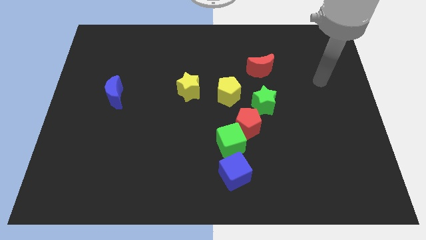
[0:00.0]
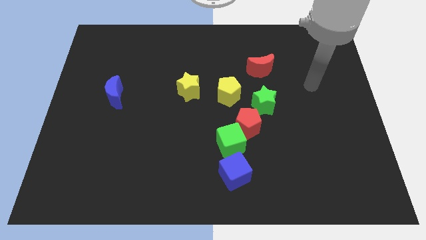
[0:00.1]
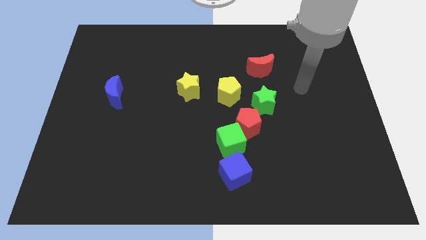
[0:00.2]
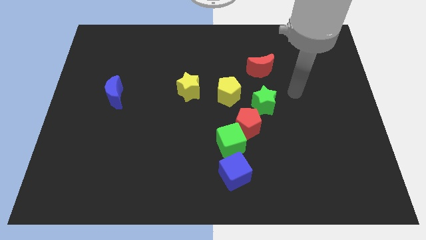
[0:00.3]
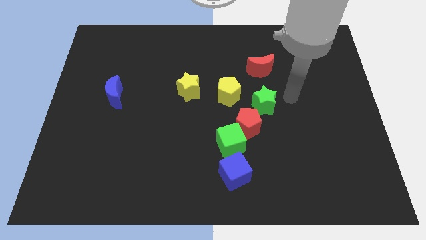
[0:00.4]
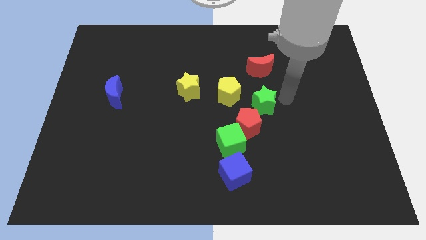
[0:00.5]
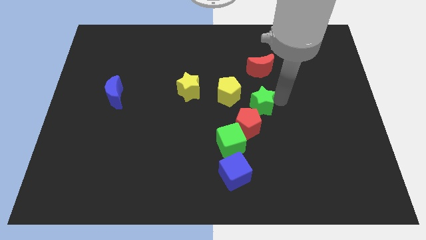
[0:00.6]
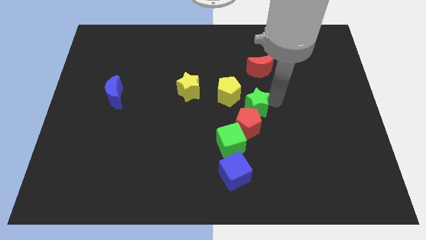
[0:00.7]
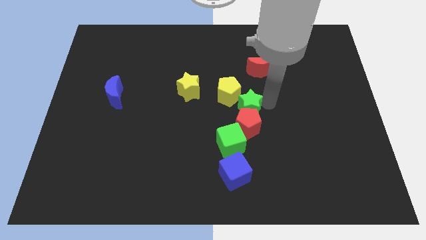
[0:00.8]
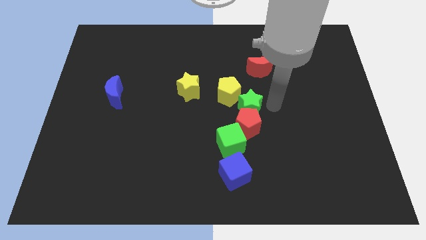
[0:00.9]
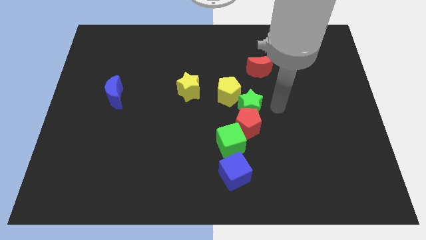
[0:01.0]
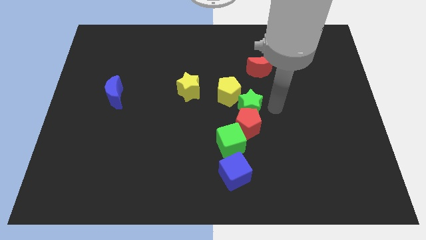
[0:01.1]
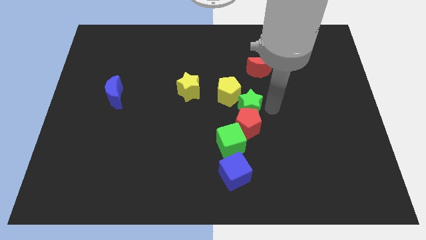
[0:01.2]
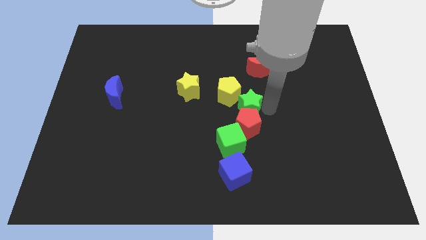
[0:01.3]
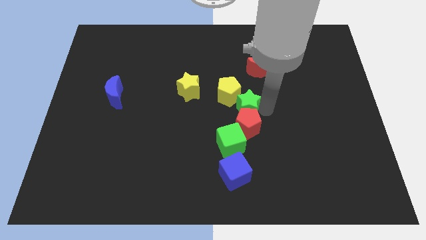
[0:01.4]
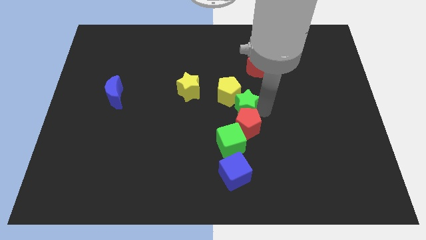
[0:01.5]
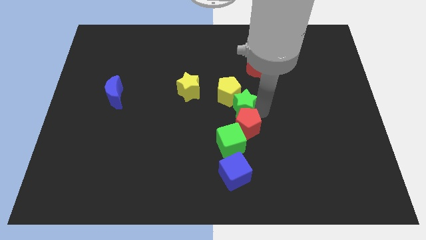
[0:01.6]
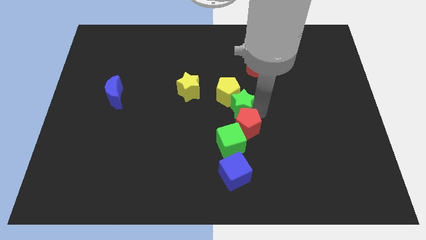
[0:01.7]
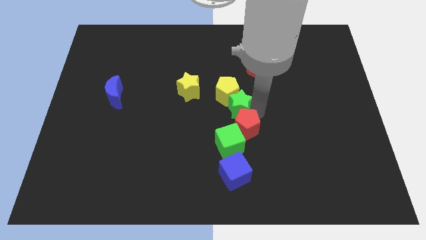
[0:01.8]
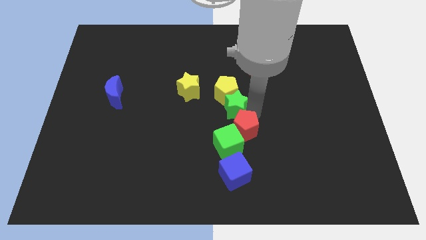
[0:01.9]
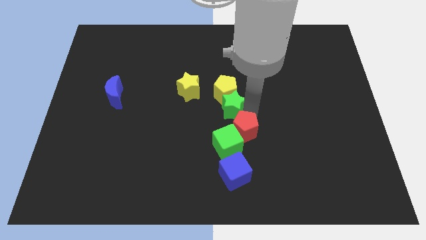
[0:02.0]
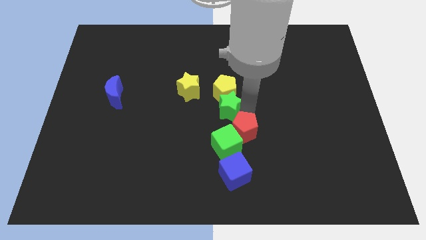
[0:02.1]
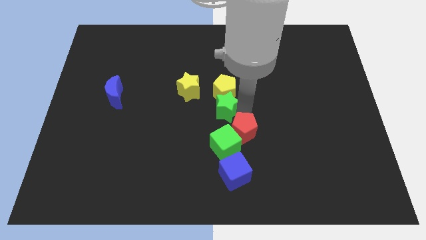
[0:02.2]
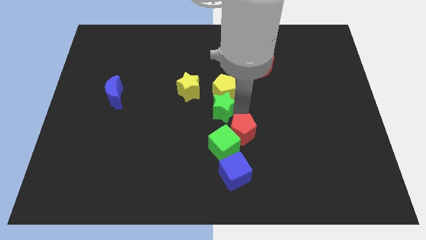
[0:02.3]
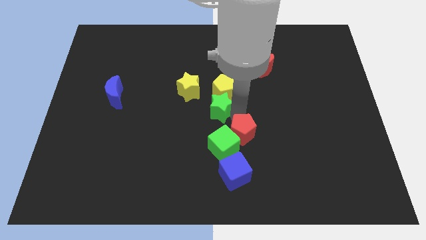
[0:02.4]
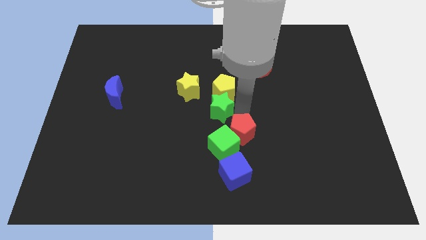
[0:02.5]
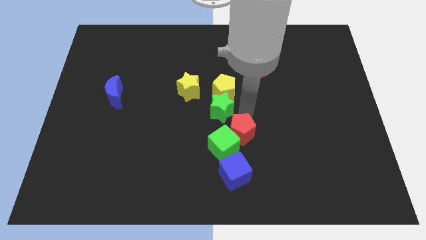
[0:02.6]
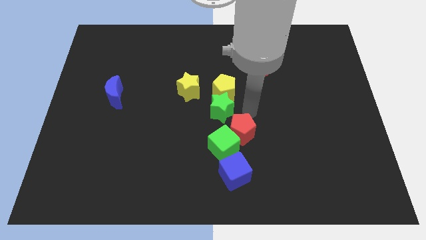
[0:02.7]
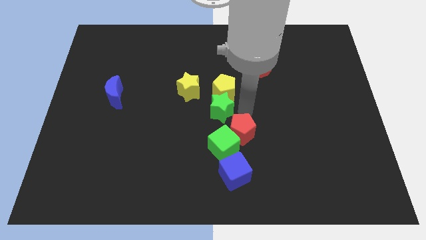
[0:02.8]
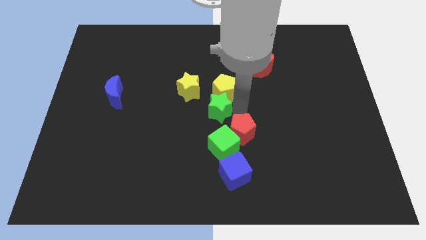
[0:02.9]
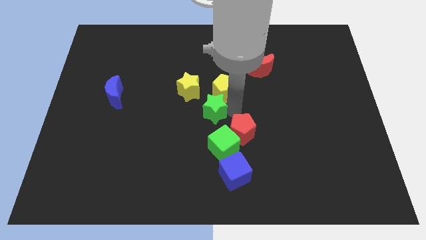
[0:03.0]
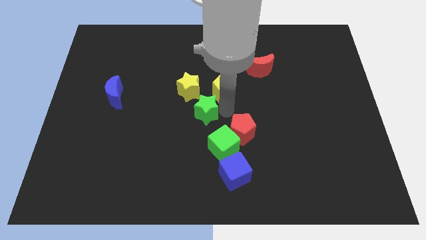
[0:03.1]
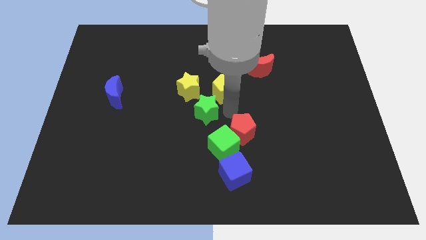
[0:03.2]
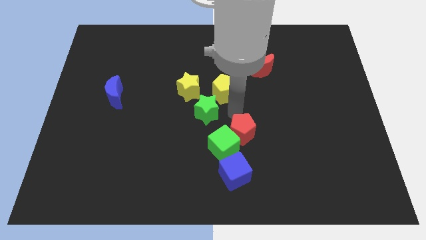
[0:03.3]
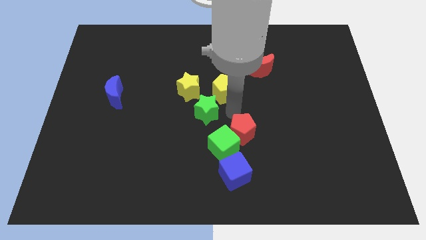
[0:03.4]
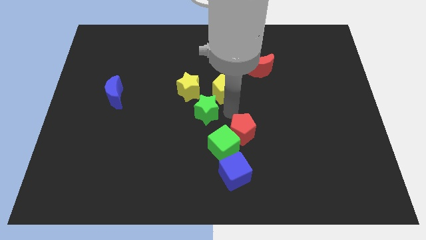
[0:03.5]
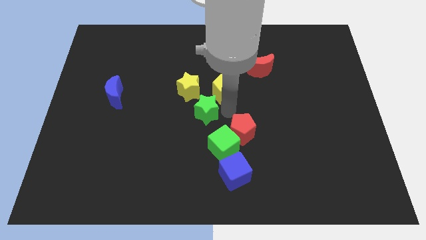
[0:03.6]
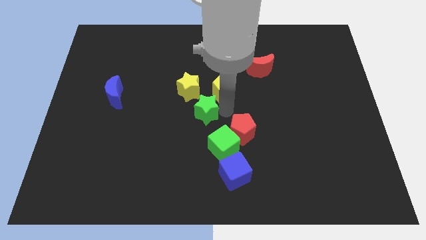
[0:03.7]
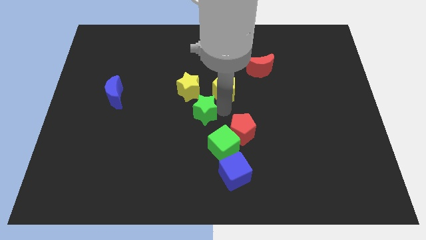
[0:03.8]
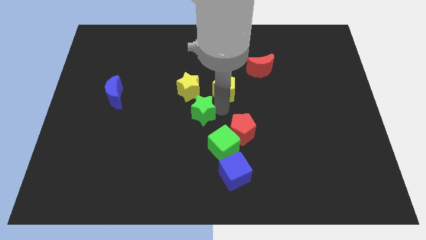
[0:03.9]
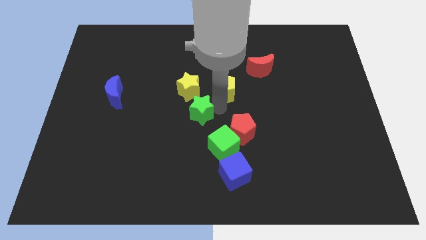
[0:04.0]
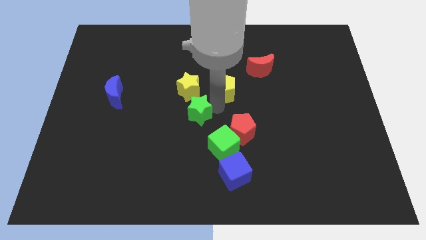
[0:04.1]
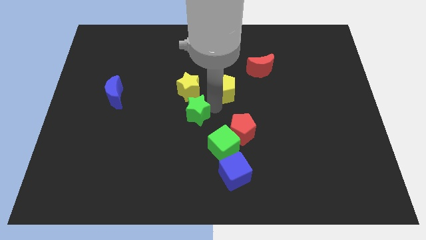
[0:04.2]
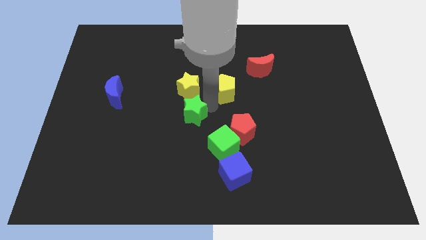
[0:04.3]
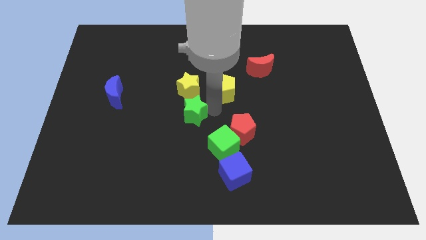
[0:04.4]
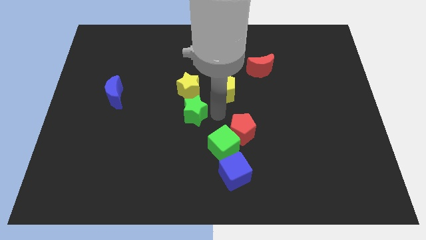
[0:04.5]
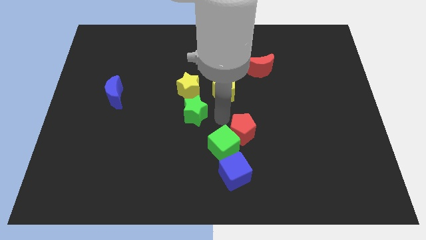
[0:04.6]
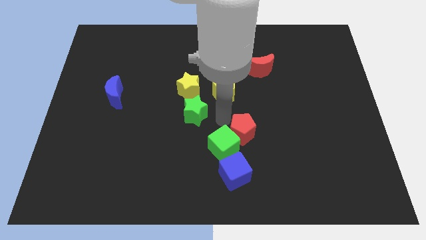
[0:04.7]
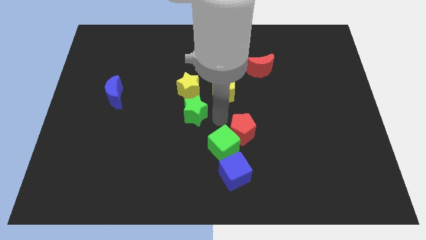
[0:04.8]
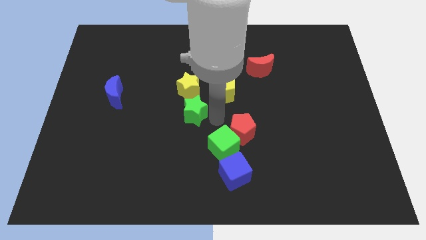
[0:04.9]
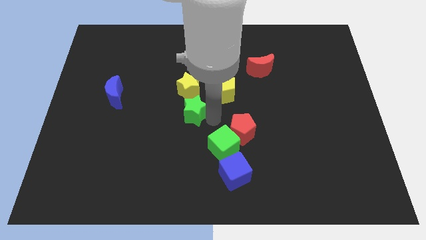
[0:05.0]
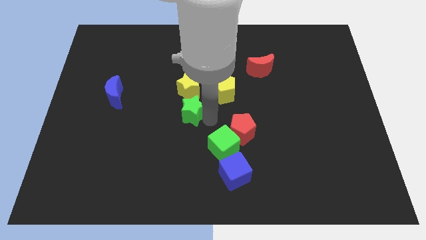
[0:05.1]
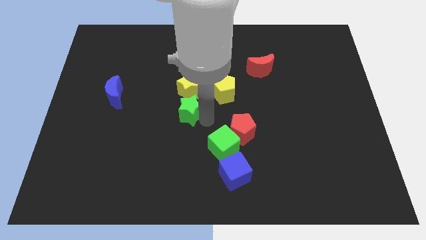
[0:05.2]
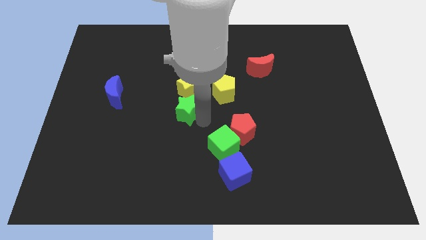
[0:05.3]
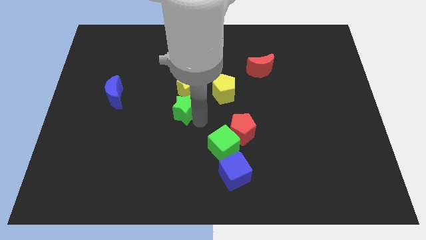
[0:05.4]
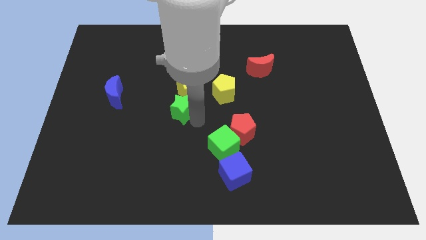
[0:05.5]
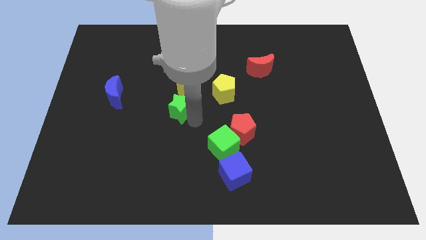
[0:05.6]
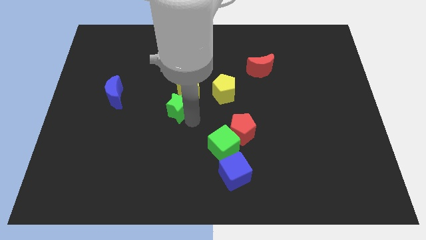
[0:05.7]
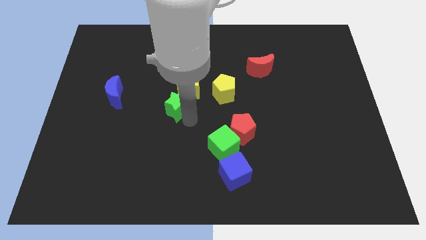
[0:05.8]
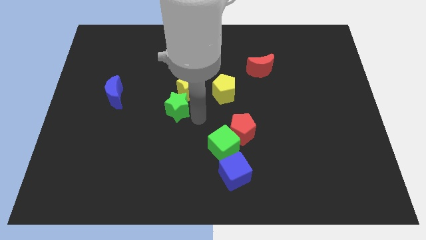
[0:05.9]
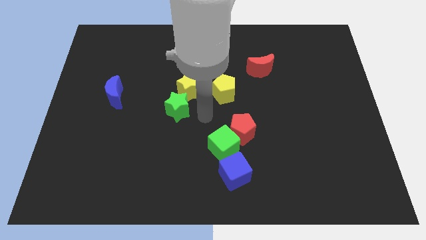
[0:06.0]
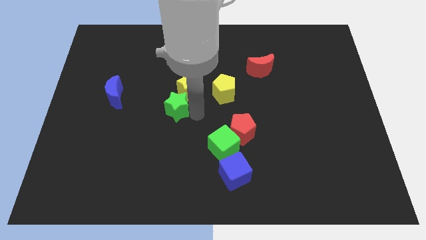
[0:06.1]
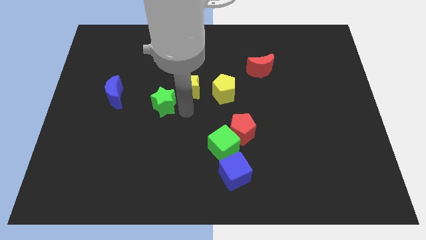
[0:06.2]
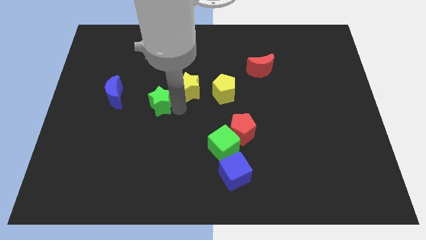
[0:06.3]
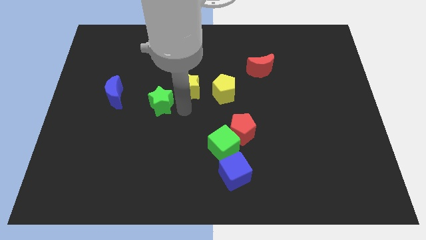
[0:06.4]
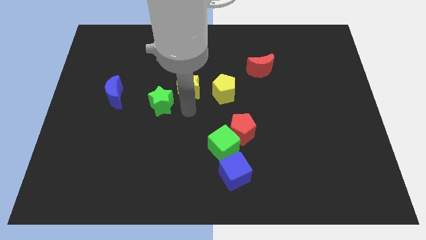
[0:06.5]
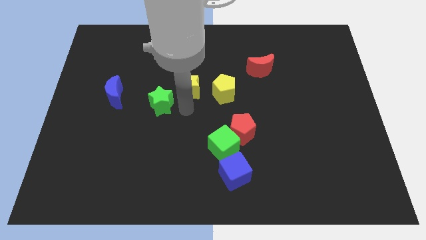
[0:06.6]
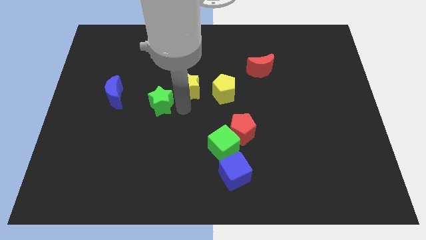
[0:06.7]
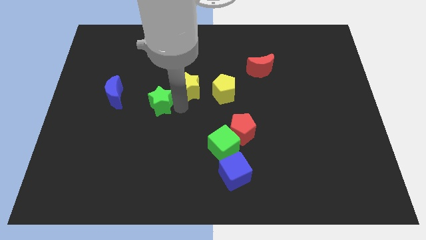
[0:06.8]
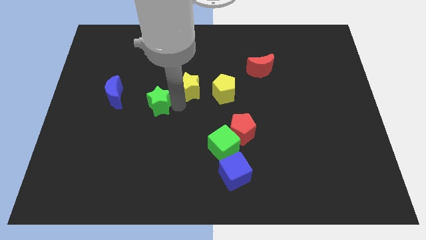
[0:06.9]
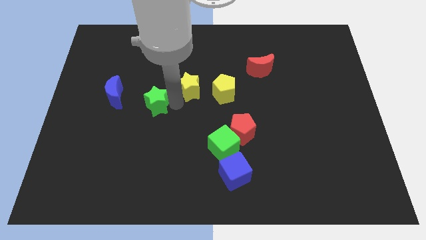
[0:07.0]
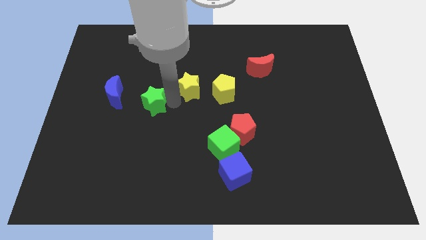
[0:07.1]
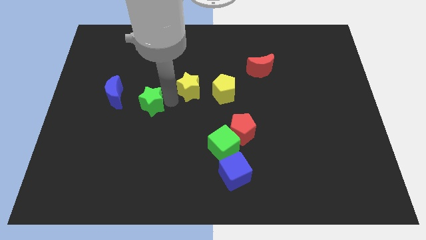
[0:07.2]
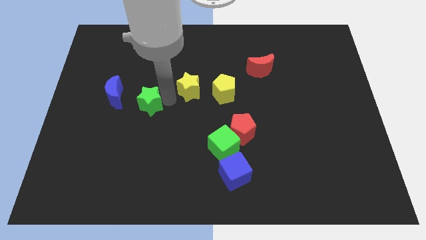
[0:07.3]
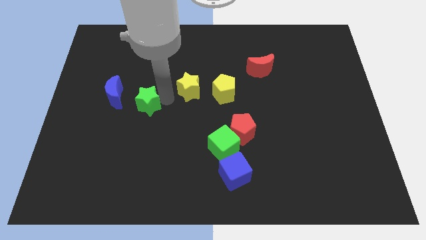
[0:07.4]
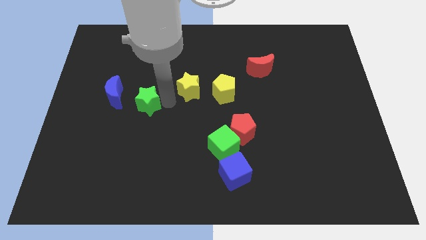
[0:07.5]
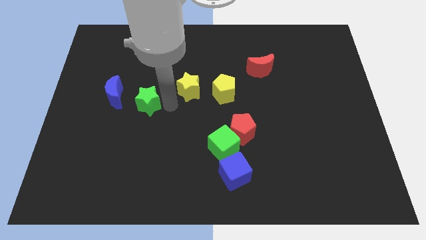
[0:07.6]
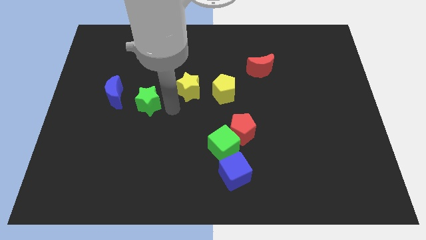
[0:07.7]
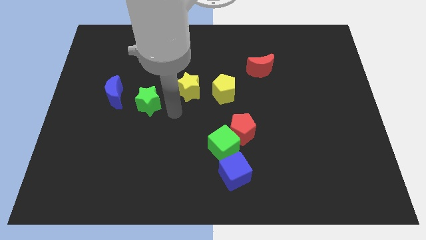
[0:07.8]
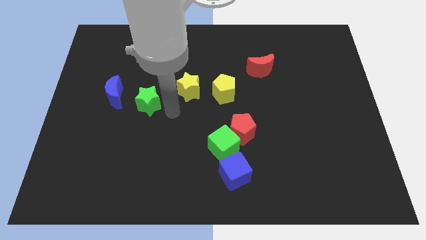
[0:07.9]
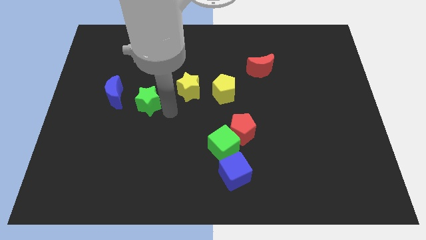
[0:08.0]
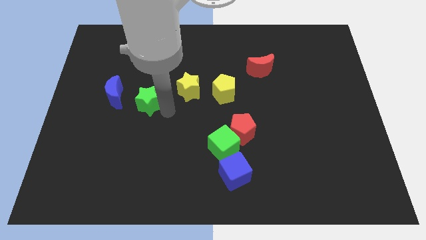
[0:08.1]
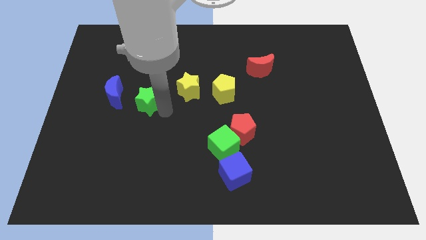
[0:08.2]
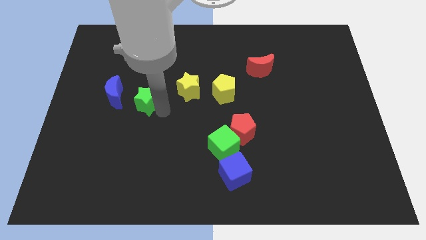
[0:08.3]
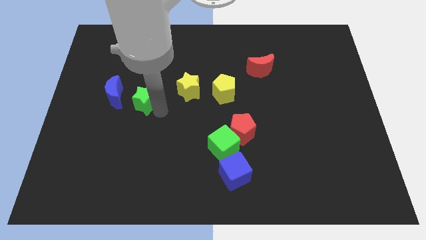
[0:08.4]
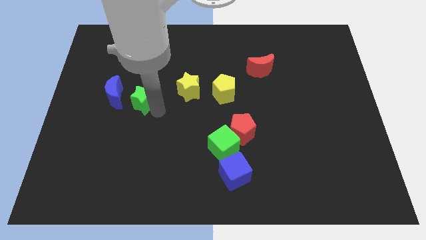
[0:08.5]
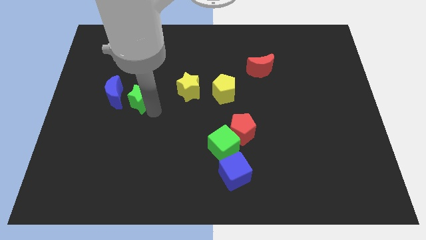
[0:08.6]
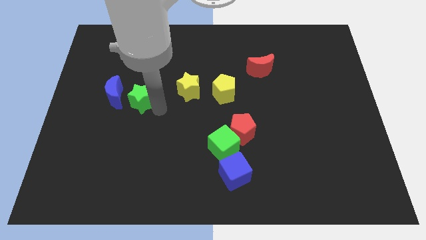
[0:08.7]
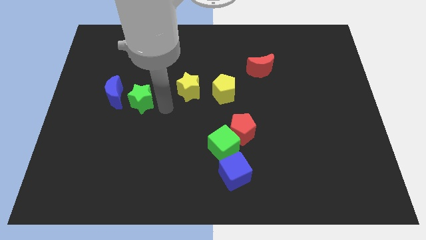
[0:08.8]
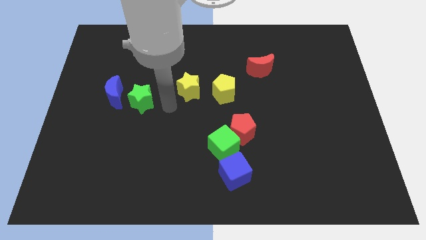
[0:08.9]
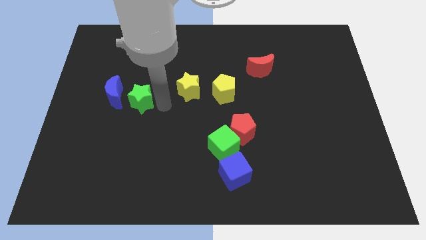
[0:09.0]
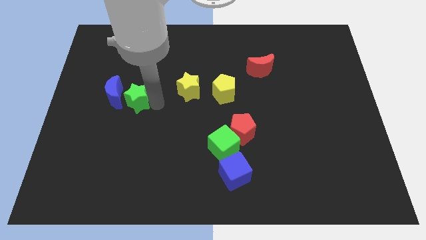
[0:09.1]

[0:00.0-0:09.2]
move the green star next to the blue moon
